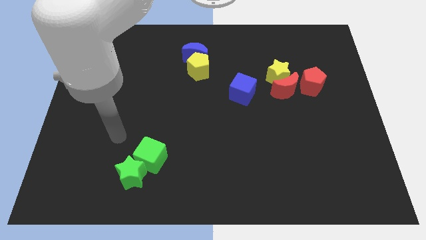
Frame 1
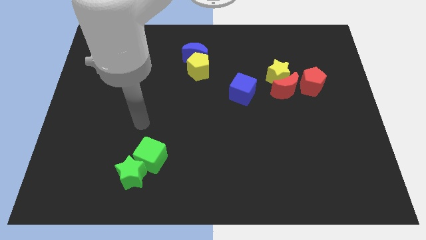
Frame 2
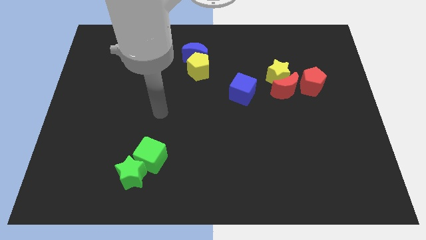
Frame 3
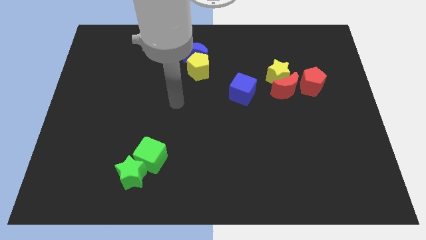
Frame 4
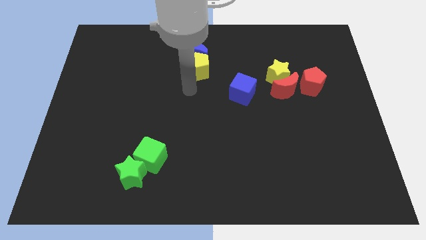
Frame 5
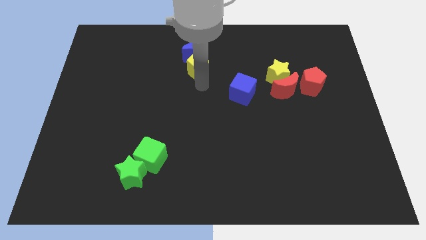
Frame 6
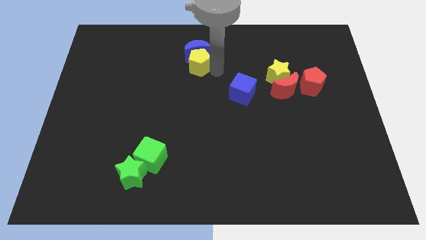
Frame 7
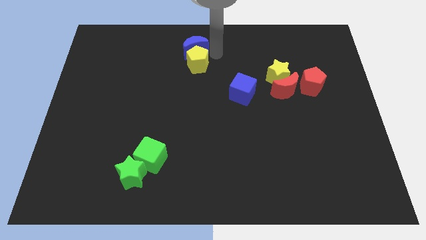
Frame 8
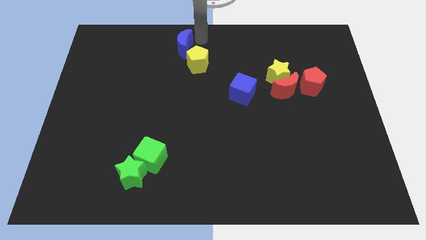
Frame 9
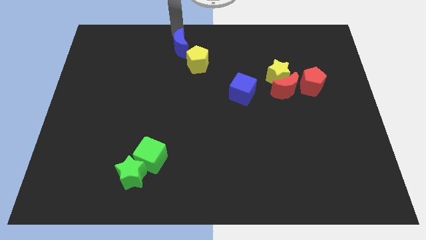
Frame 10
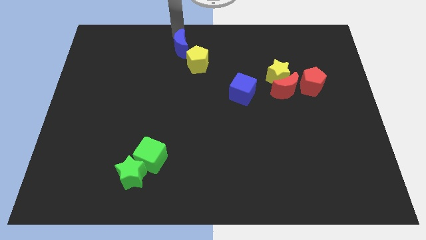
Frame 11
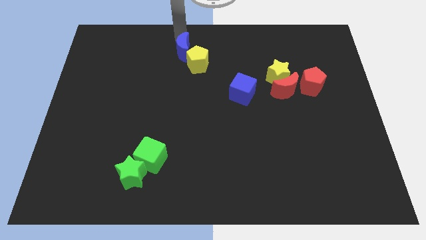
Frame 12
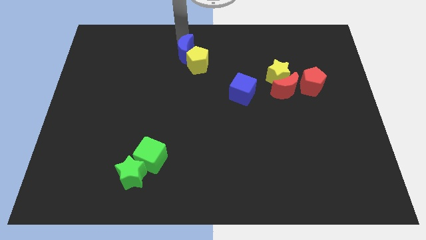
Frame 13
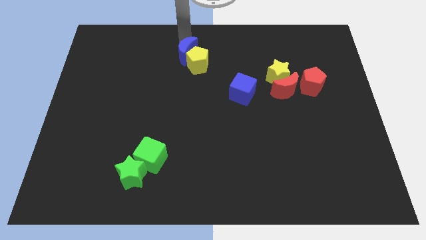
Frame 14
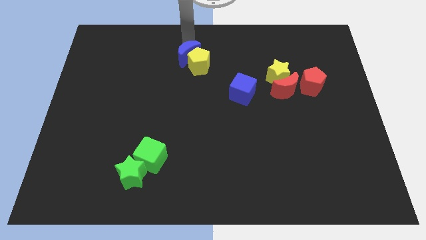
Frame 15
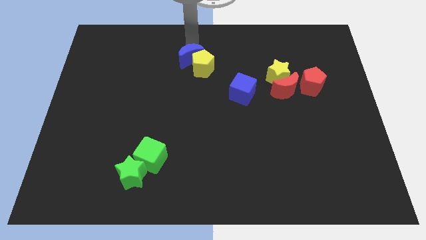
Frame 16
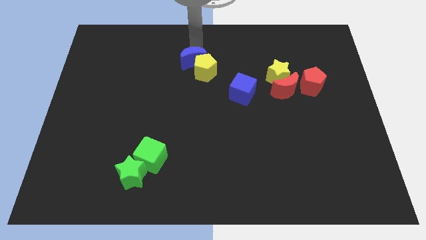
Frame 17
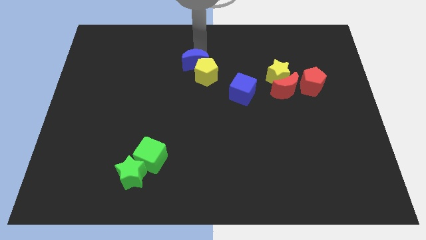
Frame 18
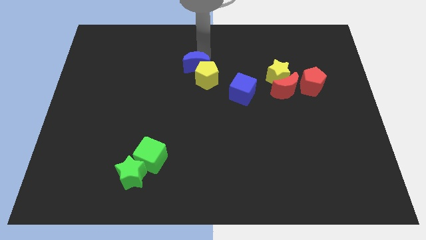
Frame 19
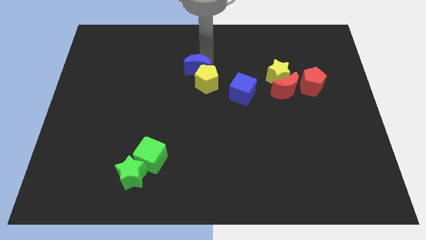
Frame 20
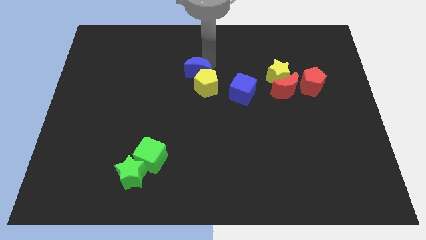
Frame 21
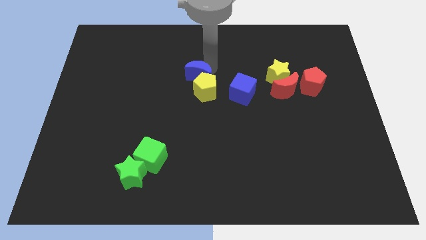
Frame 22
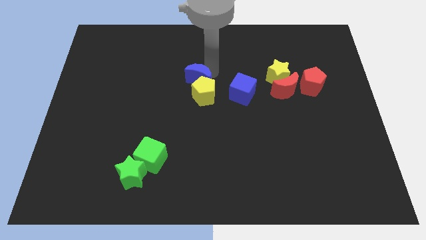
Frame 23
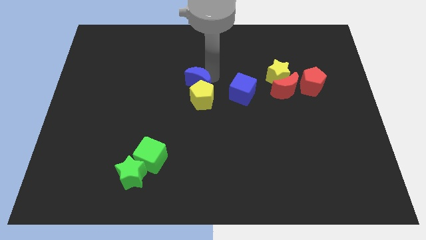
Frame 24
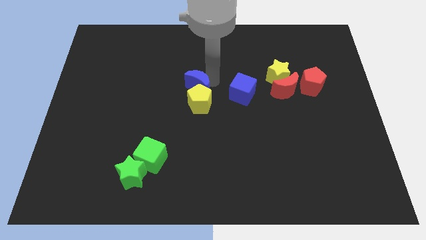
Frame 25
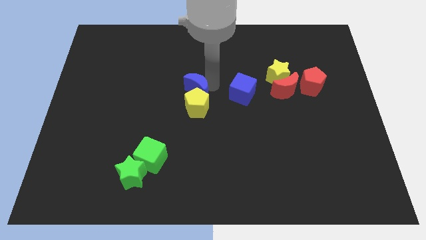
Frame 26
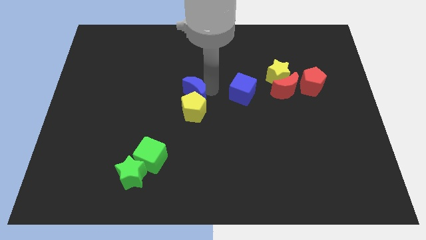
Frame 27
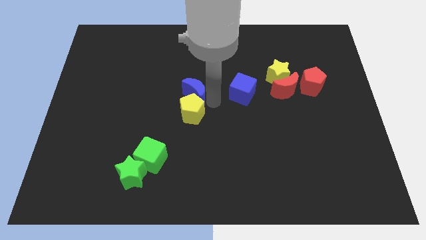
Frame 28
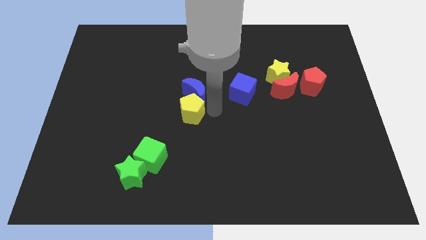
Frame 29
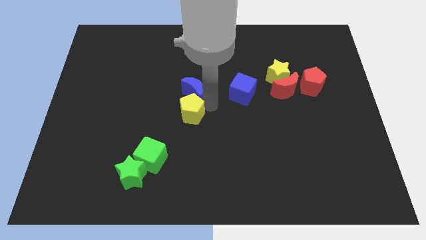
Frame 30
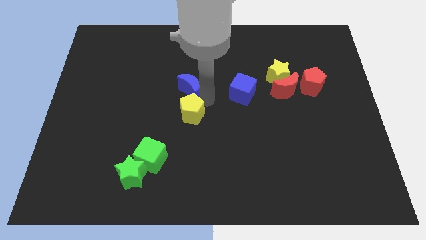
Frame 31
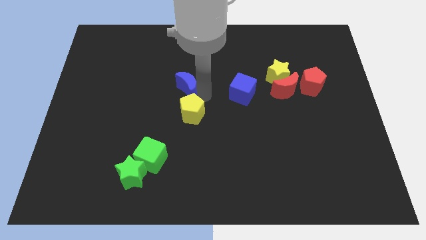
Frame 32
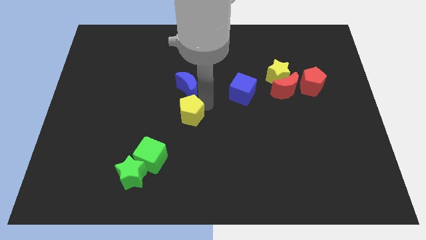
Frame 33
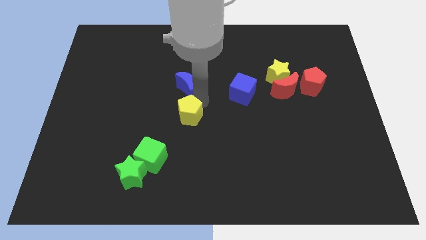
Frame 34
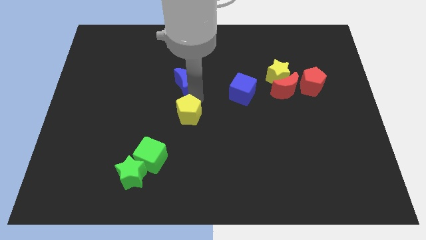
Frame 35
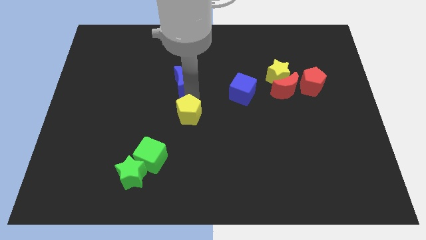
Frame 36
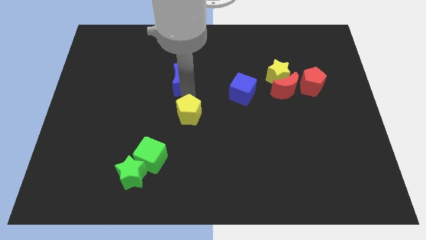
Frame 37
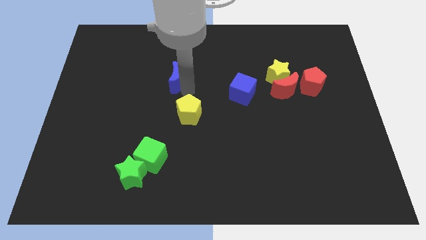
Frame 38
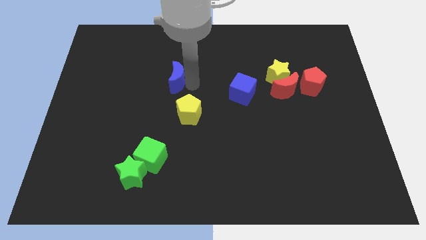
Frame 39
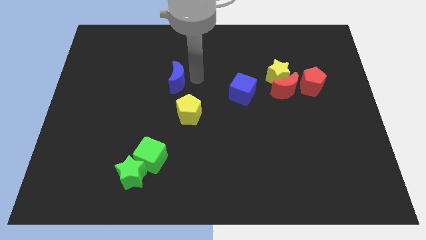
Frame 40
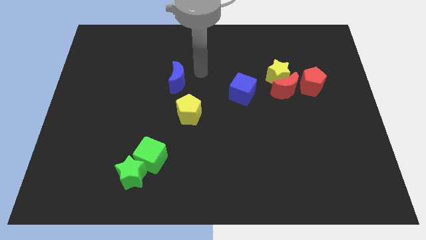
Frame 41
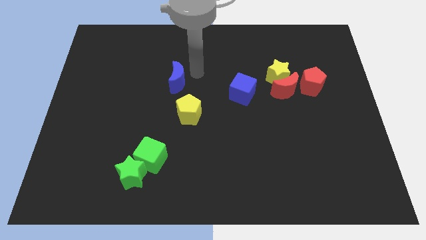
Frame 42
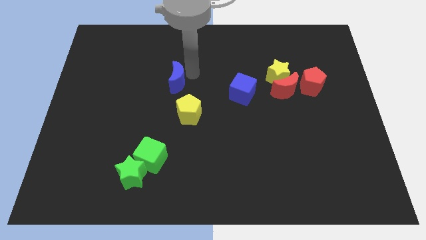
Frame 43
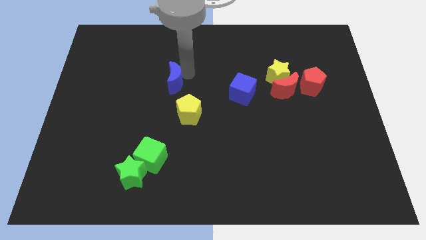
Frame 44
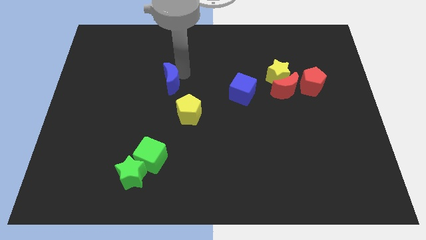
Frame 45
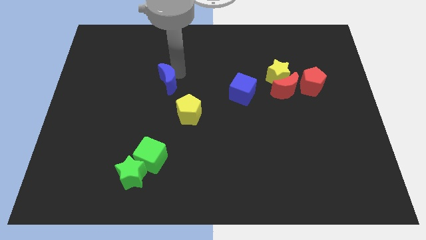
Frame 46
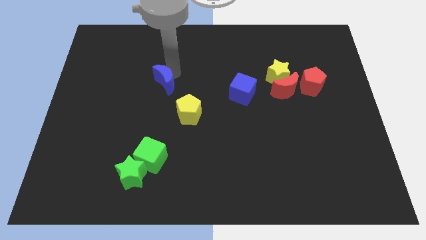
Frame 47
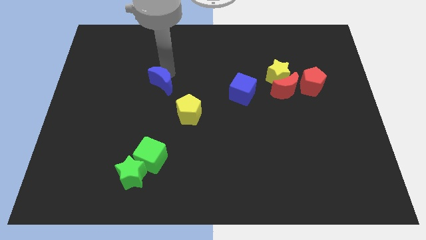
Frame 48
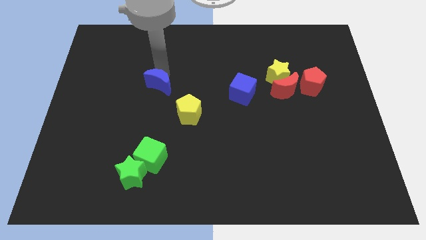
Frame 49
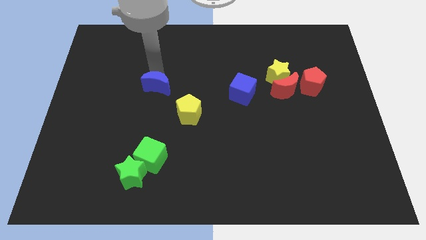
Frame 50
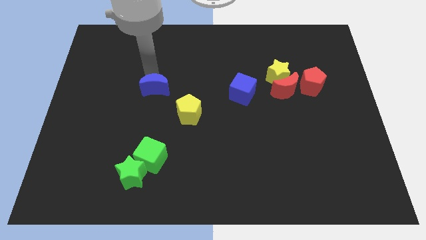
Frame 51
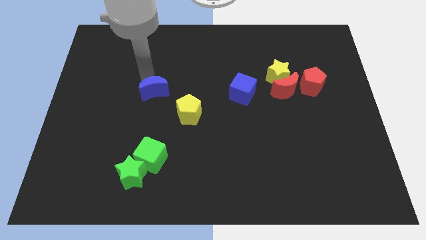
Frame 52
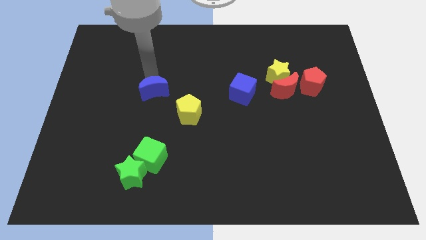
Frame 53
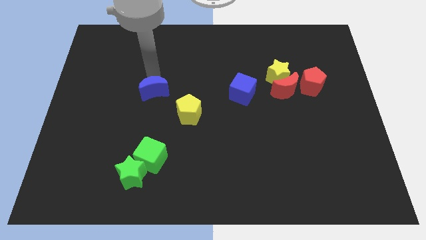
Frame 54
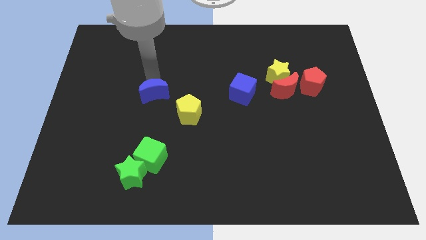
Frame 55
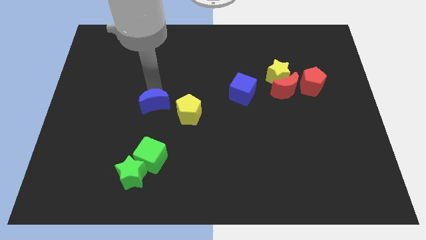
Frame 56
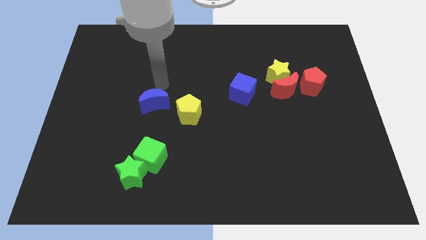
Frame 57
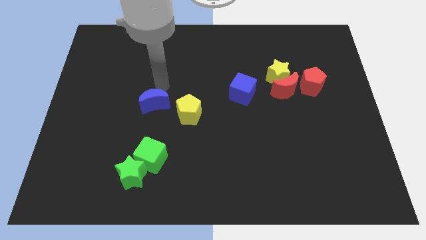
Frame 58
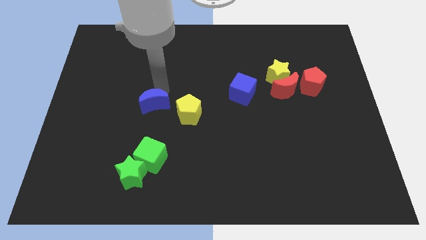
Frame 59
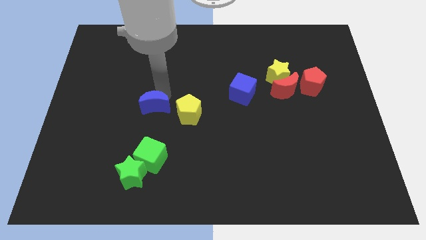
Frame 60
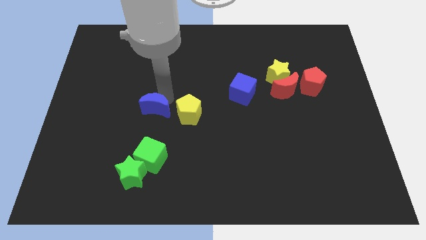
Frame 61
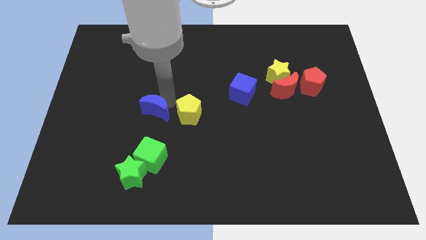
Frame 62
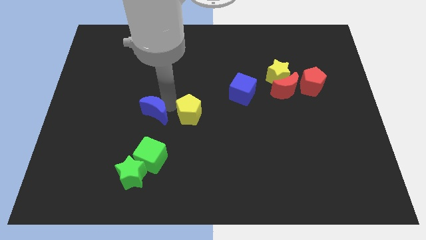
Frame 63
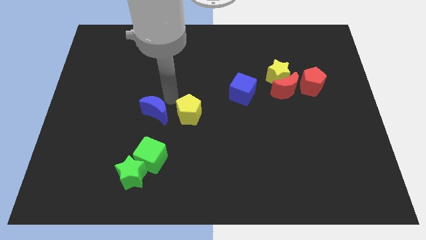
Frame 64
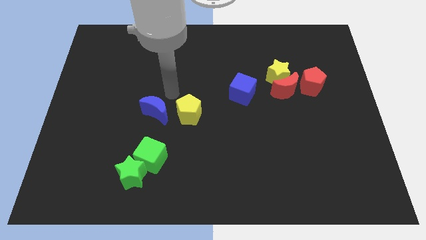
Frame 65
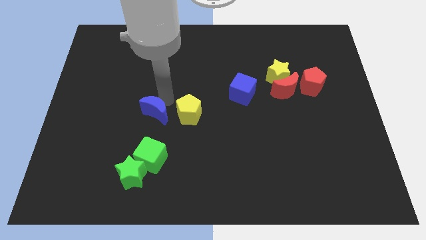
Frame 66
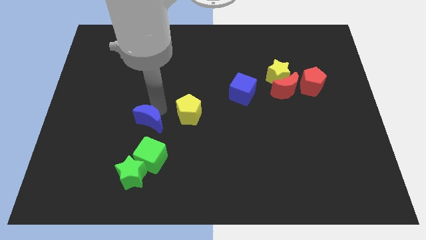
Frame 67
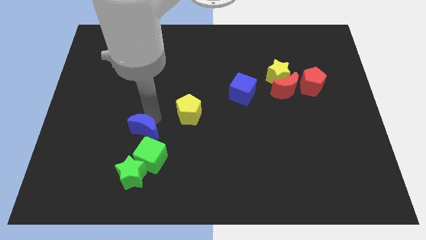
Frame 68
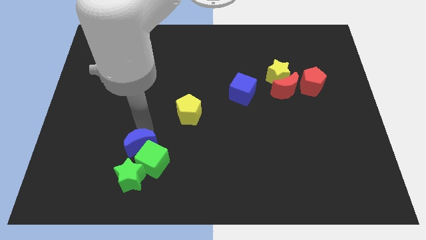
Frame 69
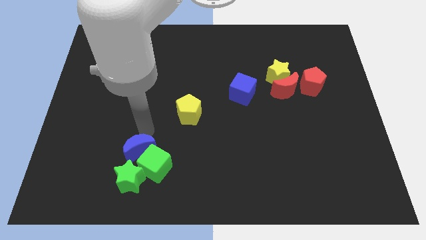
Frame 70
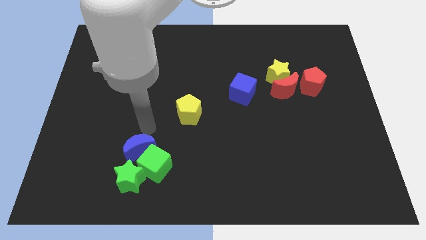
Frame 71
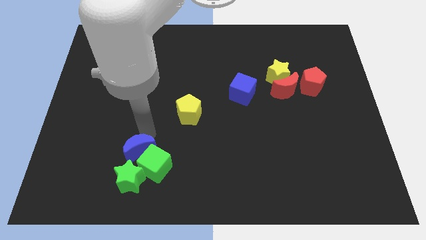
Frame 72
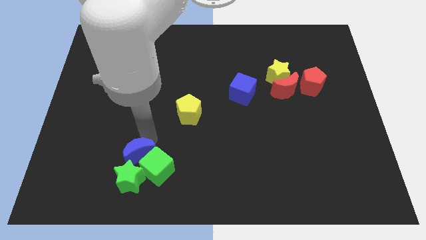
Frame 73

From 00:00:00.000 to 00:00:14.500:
put the blue moon towards the green star
